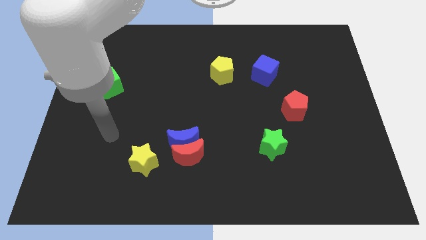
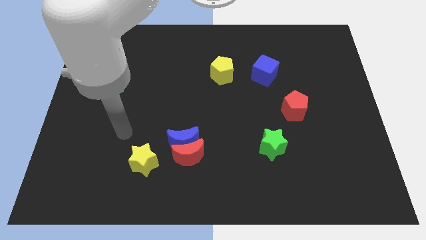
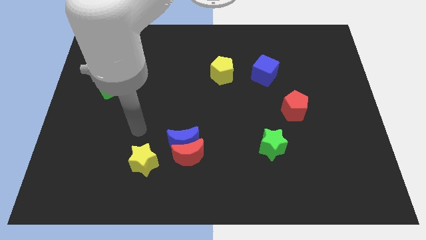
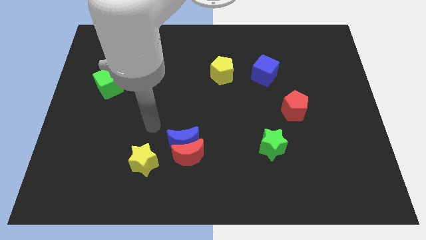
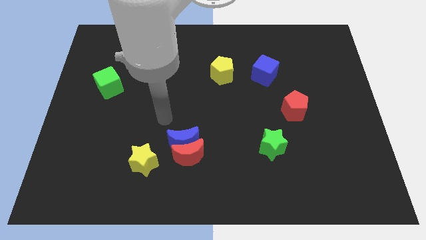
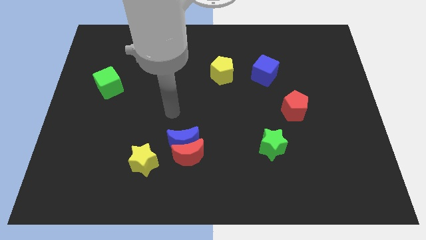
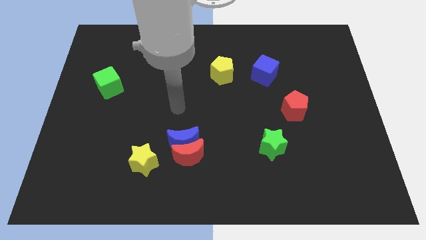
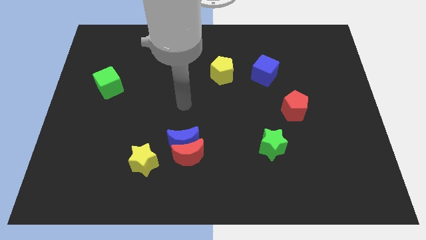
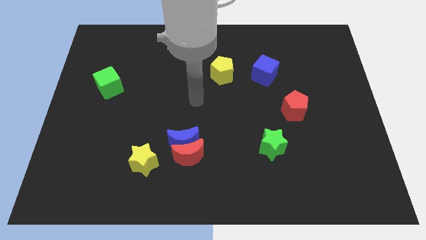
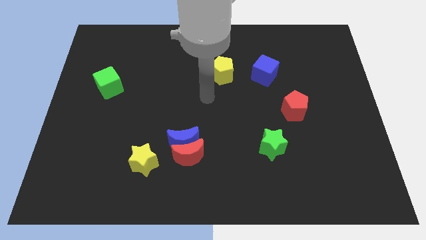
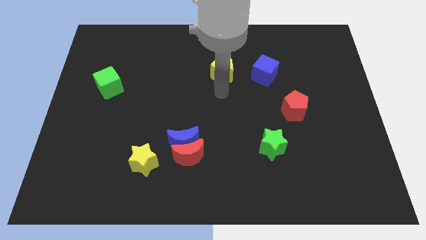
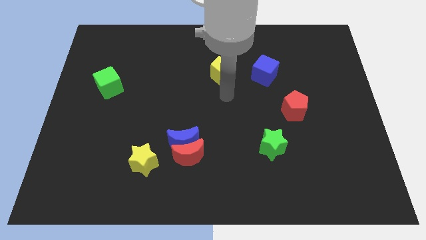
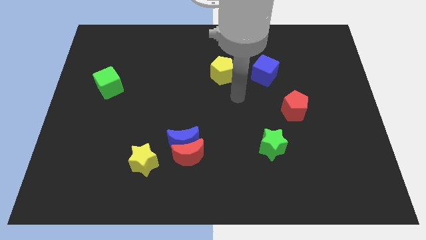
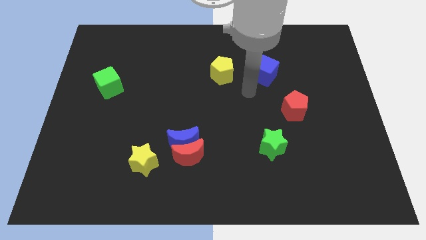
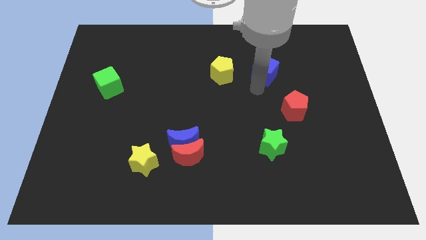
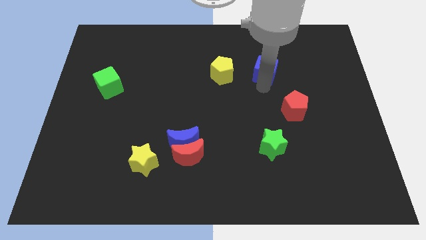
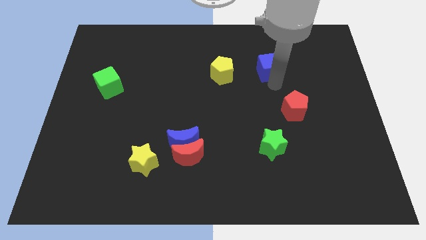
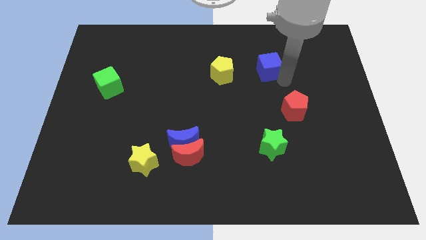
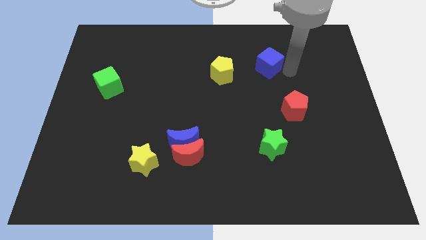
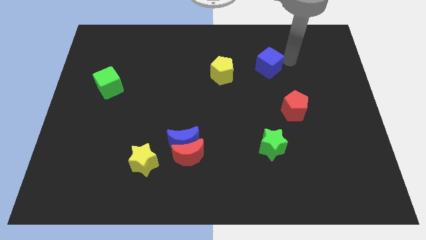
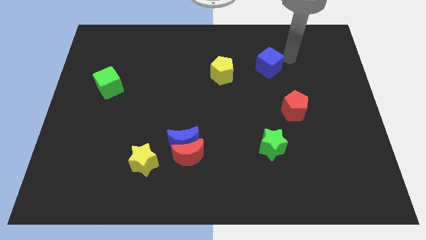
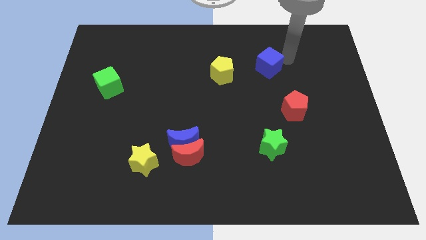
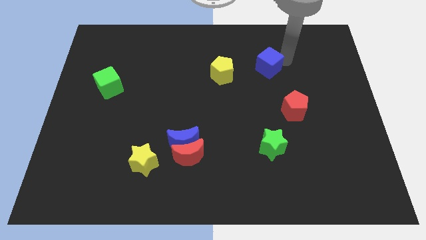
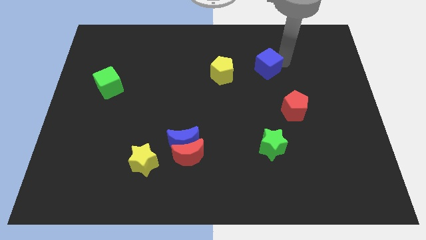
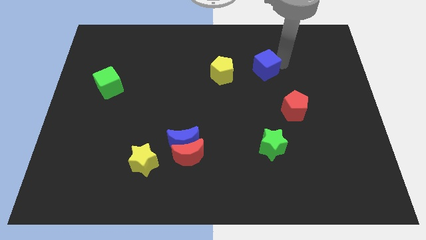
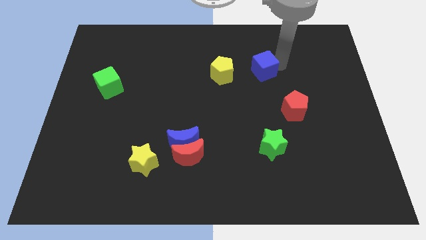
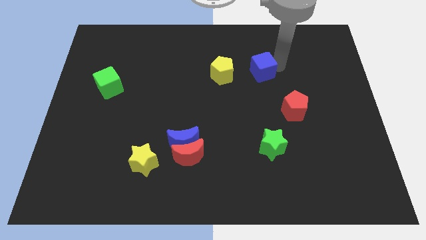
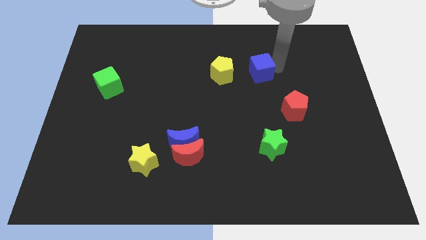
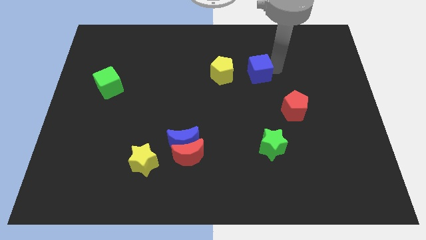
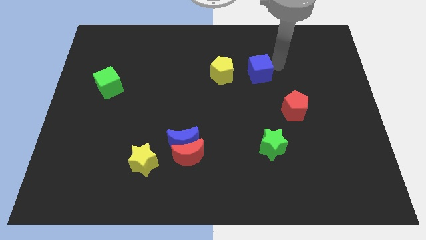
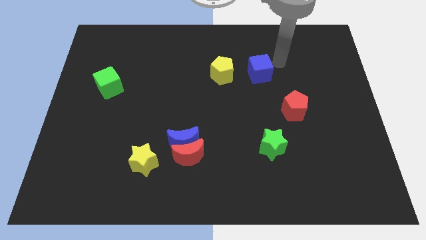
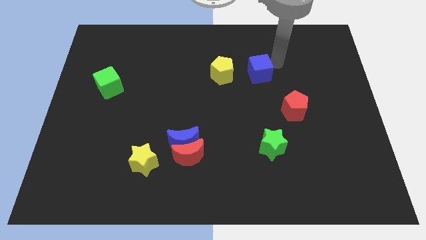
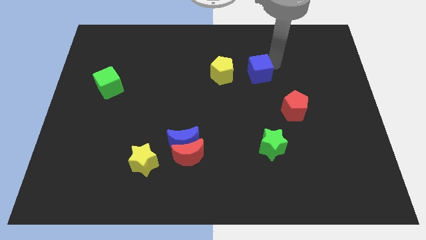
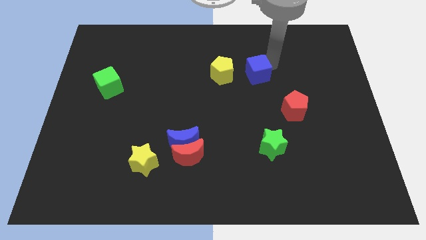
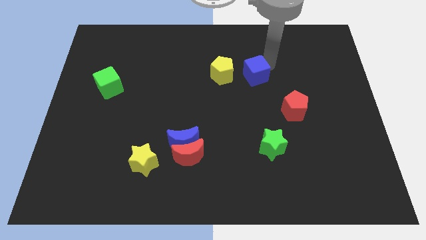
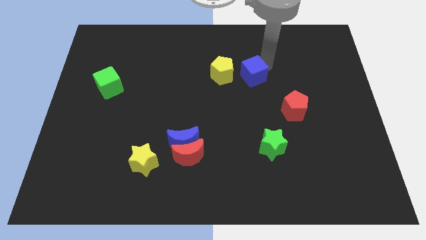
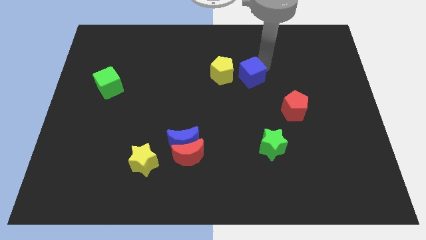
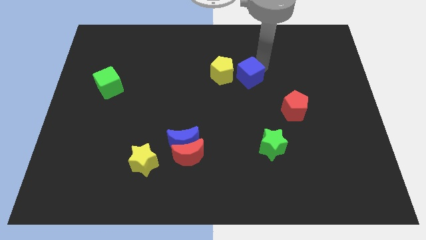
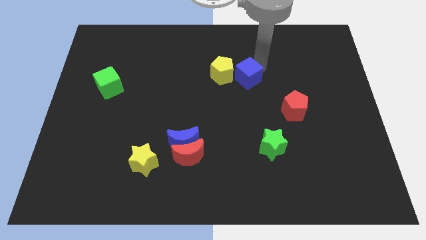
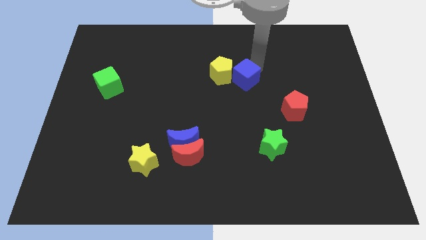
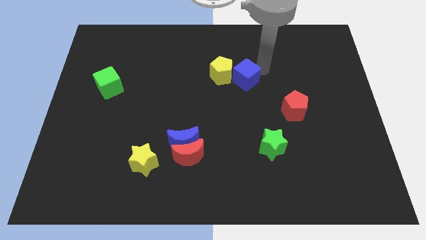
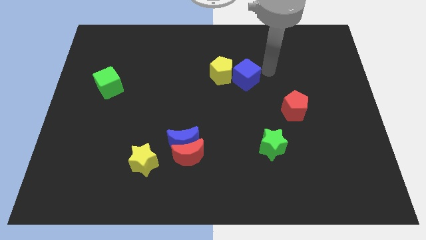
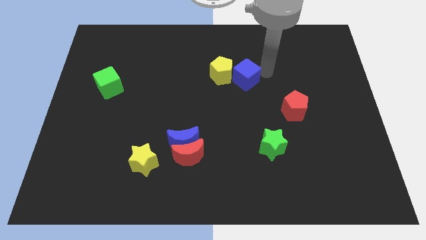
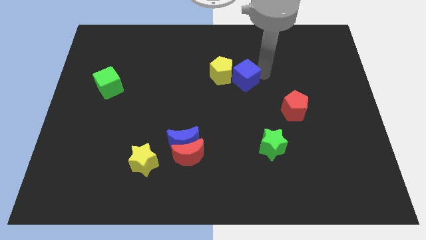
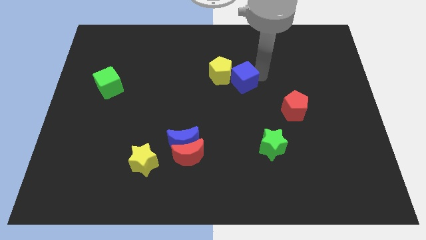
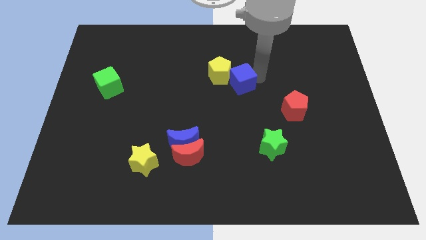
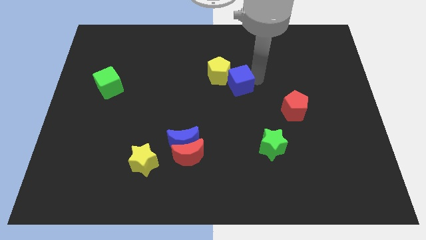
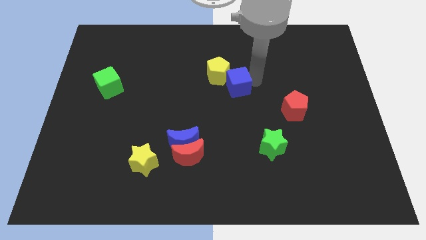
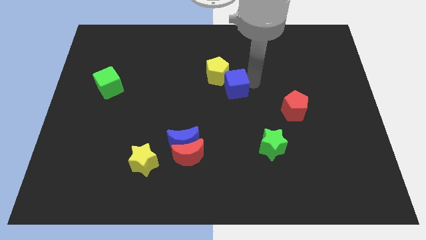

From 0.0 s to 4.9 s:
push the blue cube a bit to the left

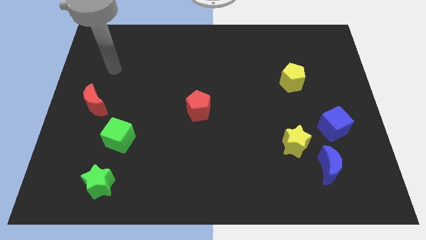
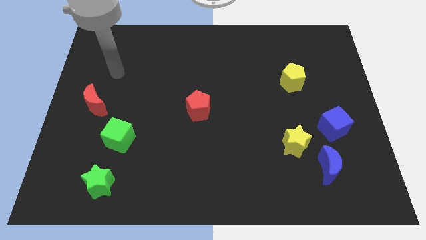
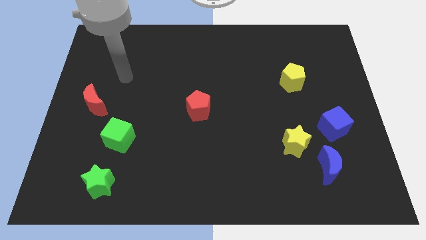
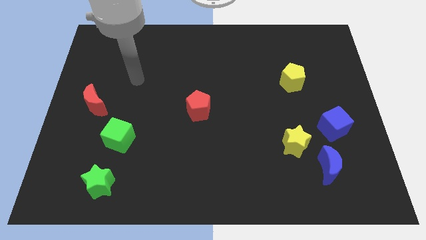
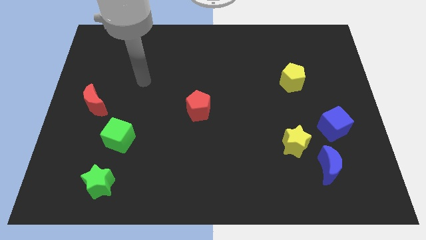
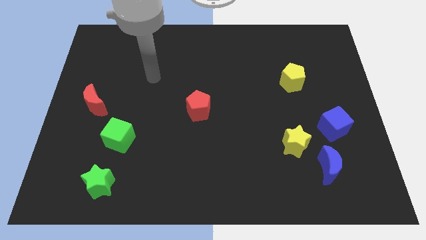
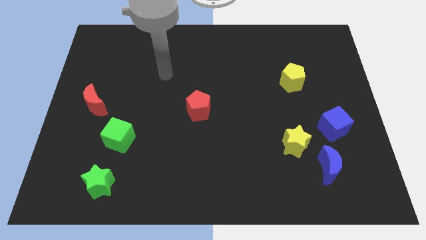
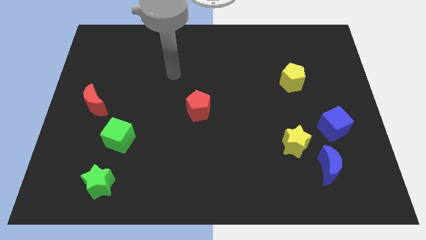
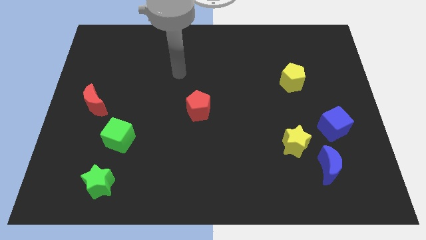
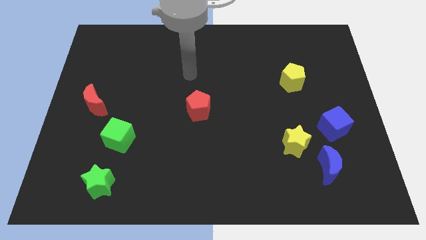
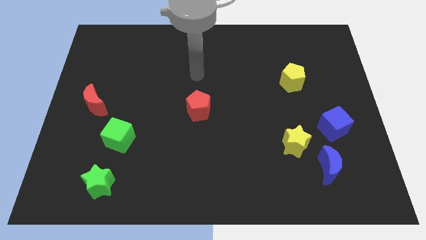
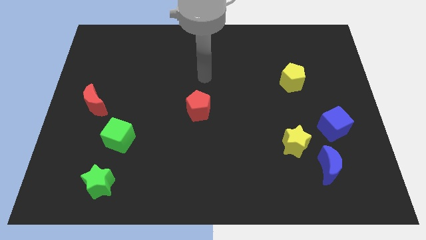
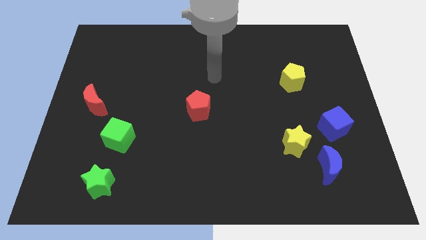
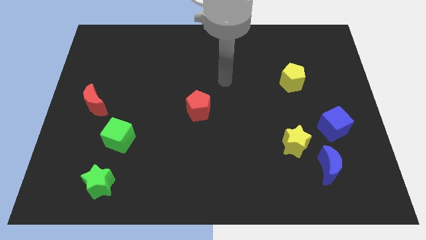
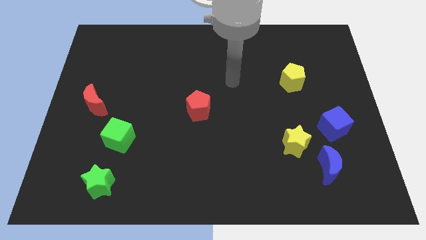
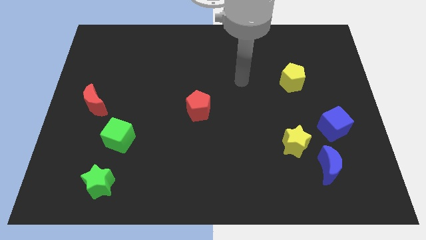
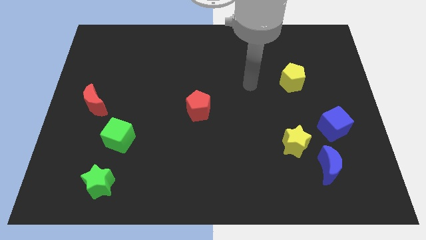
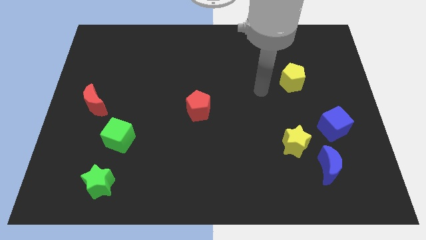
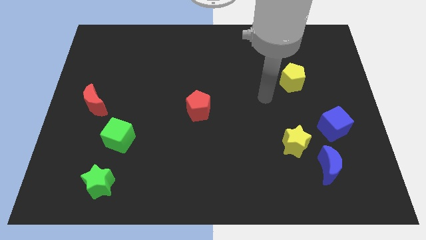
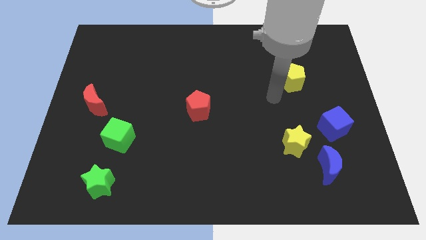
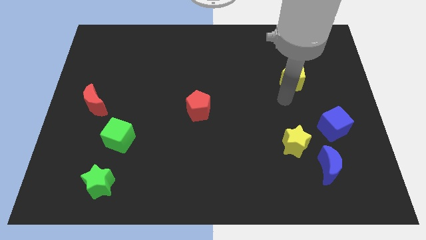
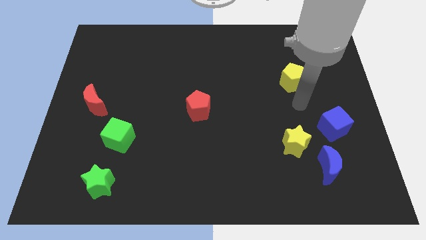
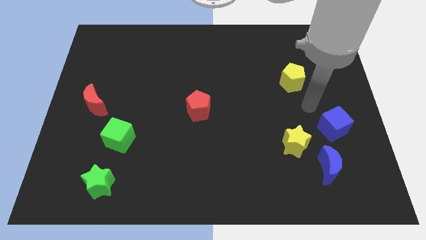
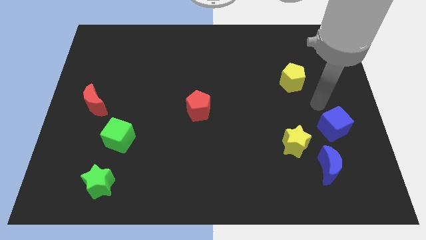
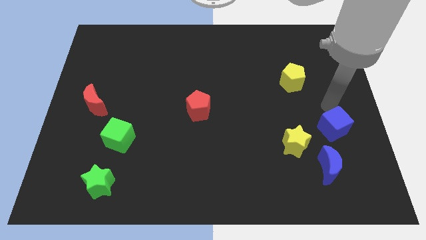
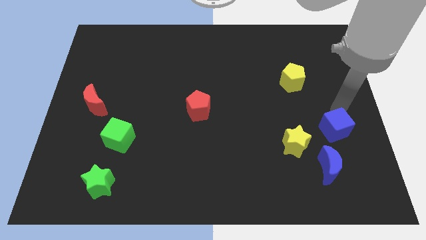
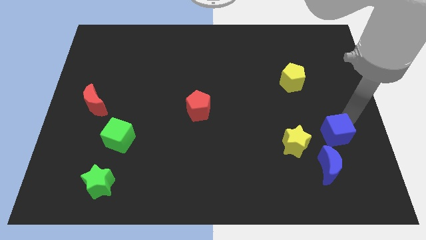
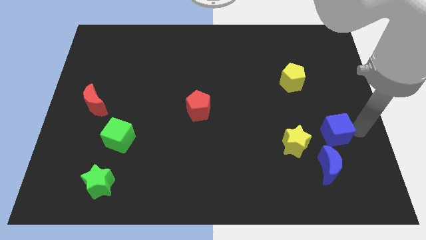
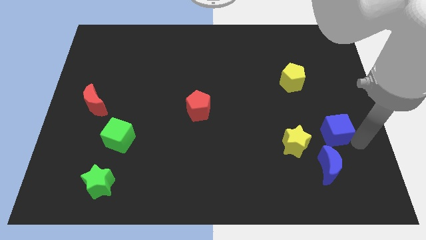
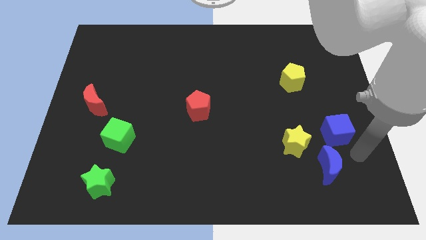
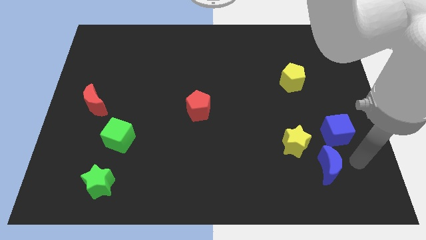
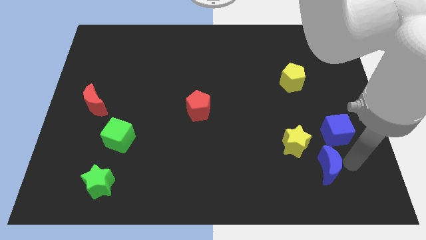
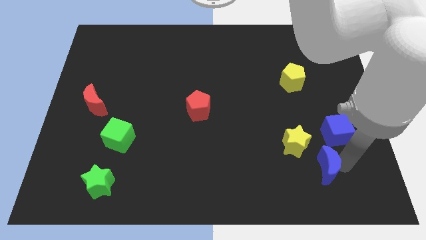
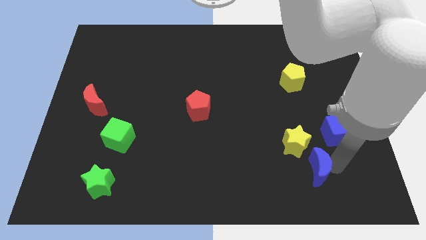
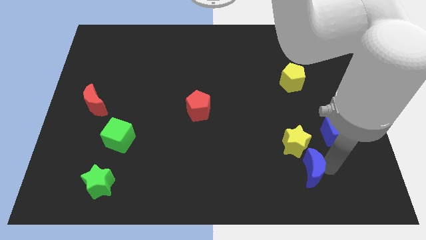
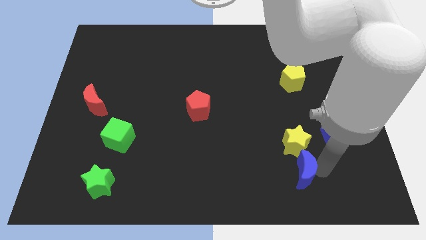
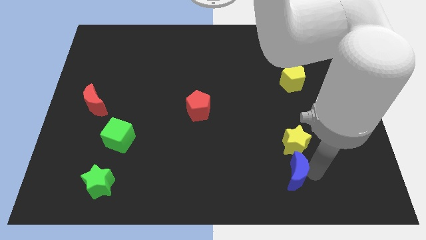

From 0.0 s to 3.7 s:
move the blue moon a bit to the left
